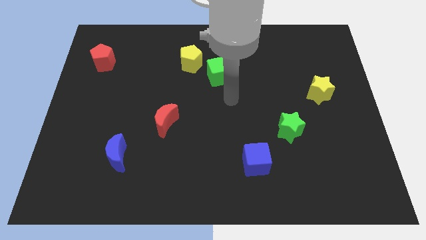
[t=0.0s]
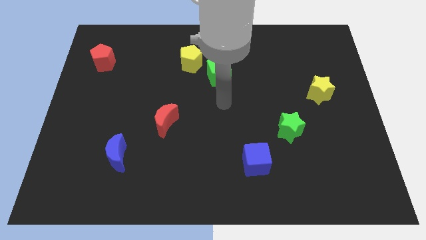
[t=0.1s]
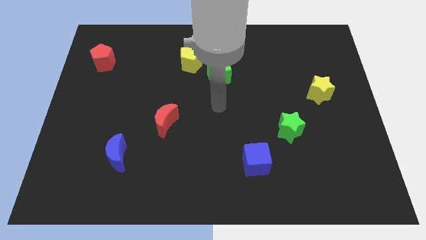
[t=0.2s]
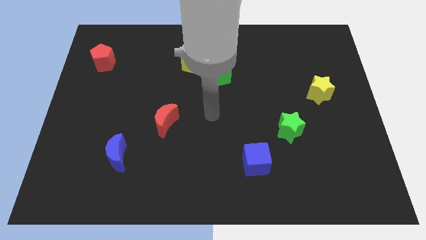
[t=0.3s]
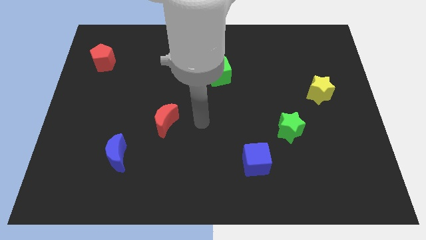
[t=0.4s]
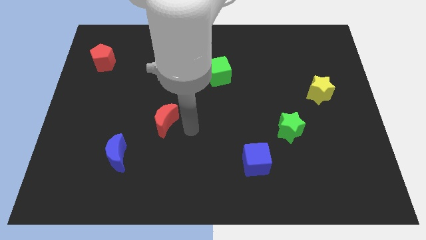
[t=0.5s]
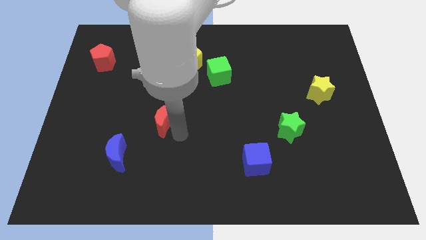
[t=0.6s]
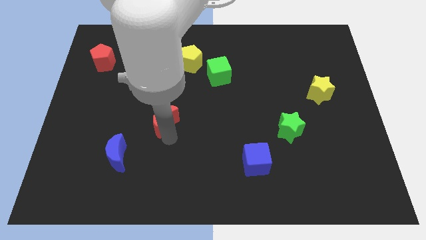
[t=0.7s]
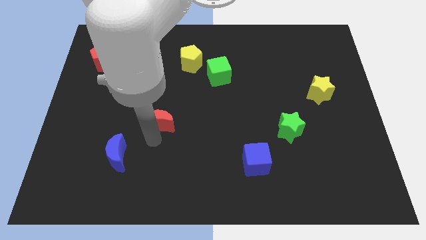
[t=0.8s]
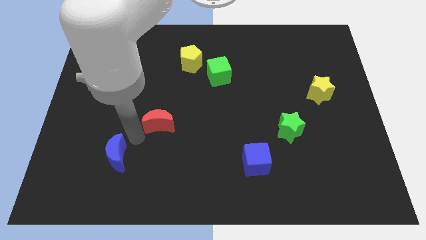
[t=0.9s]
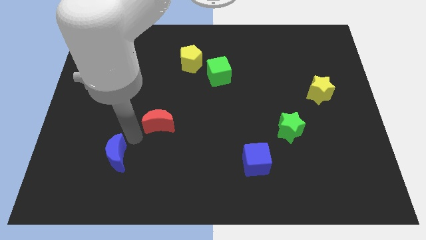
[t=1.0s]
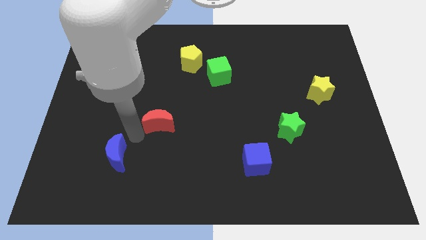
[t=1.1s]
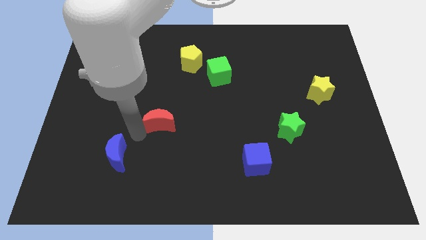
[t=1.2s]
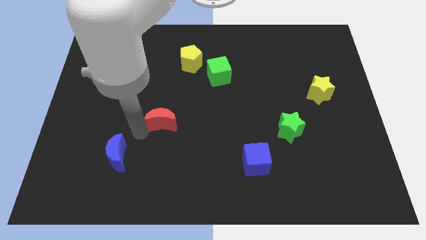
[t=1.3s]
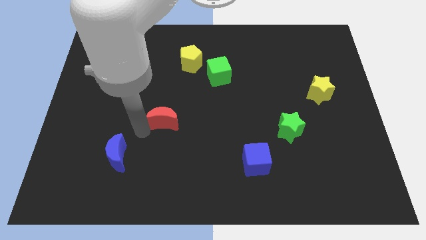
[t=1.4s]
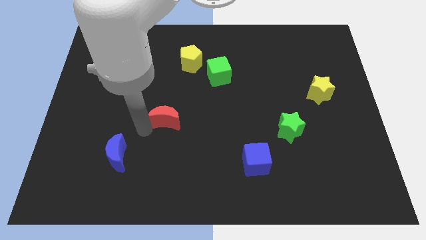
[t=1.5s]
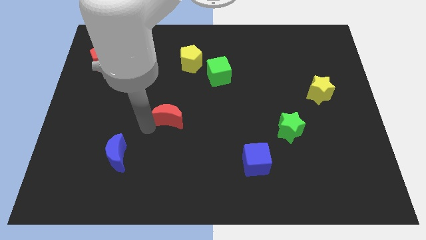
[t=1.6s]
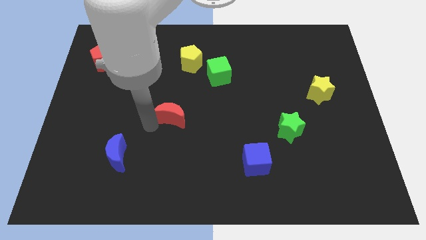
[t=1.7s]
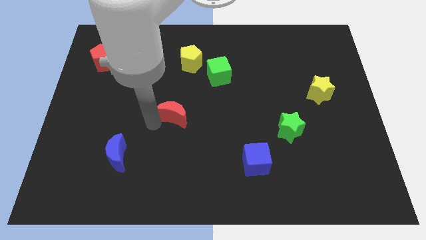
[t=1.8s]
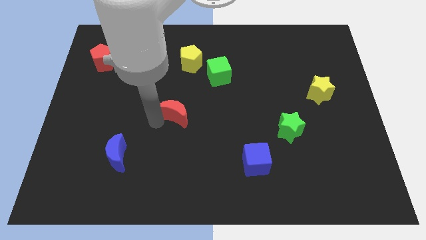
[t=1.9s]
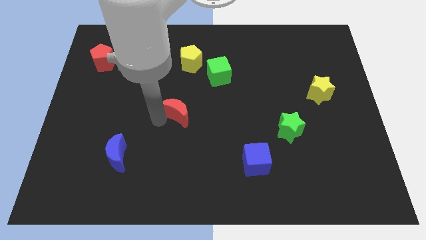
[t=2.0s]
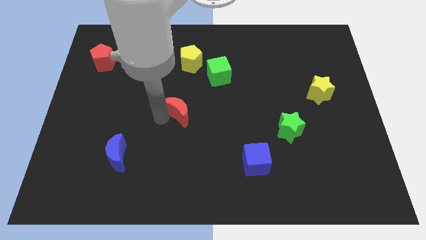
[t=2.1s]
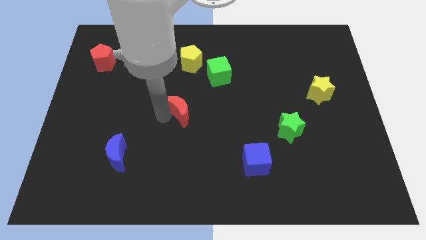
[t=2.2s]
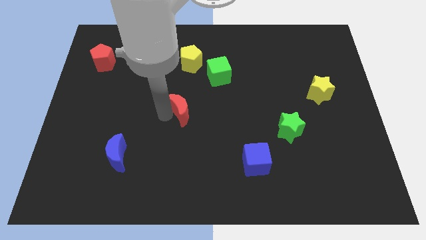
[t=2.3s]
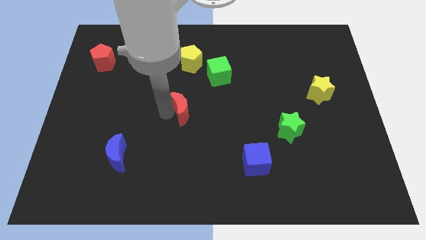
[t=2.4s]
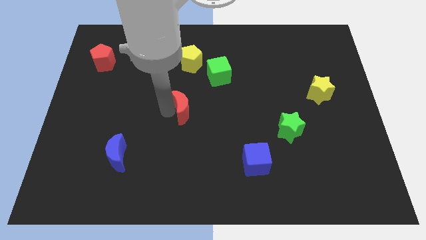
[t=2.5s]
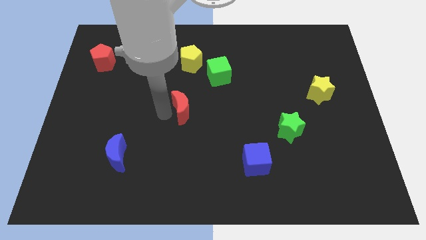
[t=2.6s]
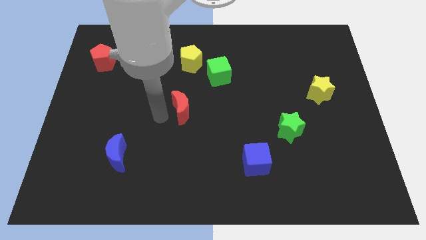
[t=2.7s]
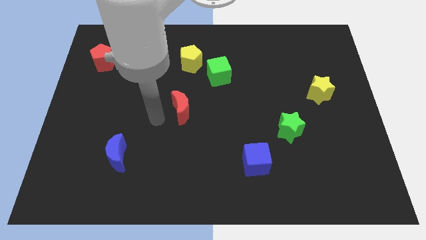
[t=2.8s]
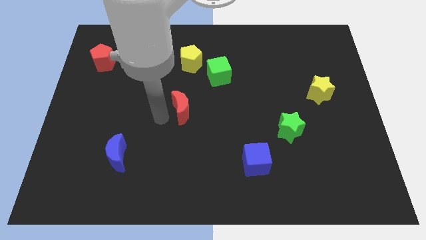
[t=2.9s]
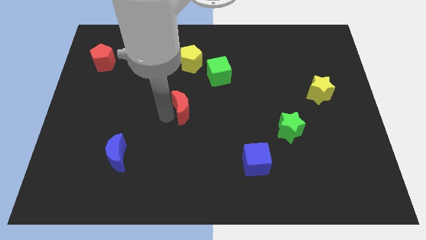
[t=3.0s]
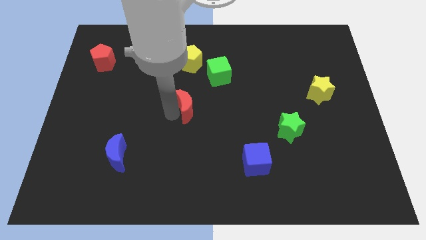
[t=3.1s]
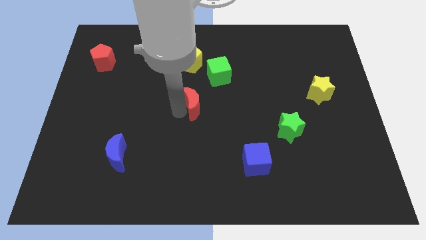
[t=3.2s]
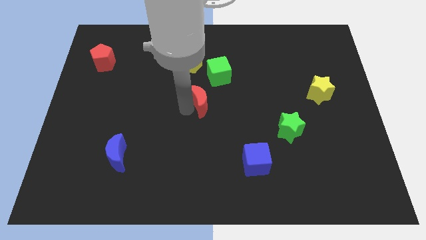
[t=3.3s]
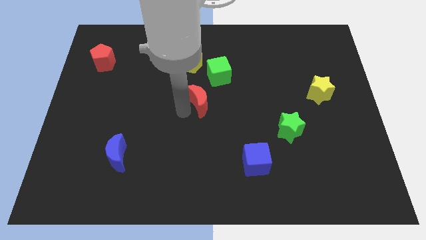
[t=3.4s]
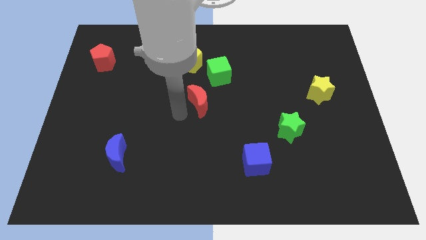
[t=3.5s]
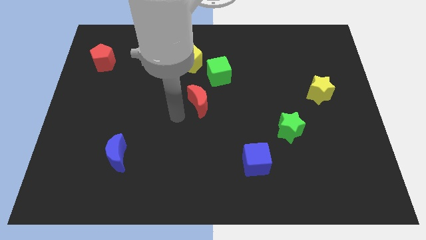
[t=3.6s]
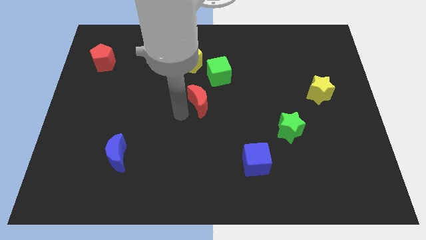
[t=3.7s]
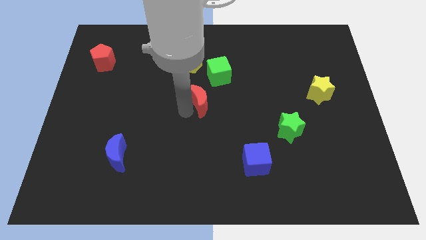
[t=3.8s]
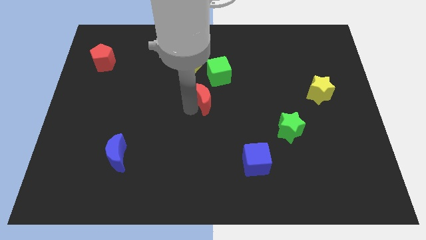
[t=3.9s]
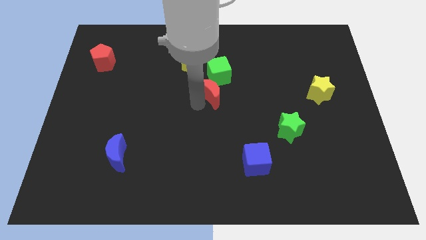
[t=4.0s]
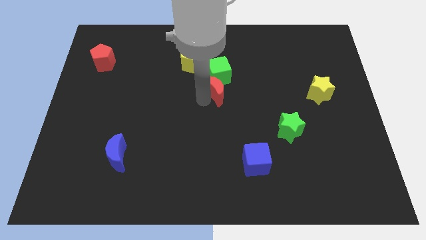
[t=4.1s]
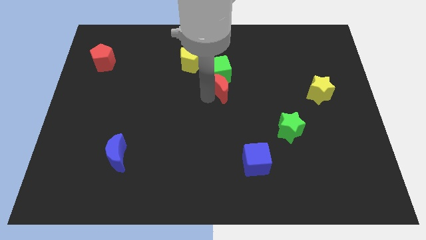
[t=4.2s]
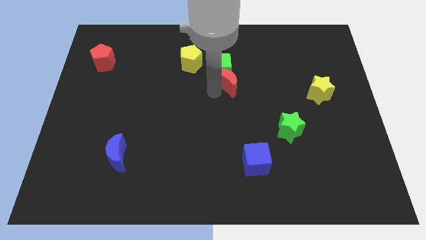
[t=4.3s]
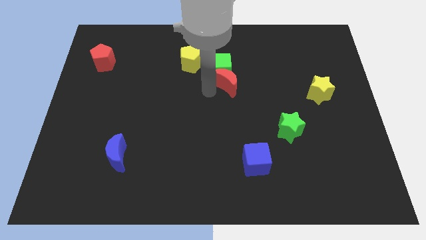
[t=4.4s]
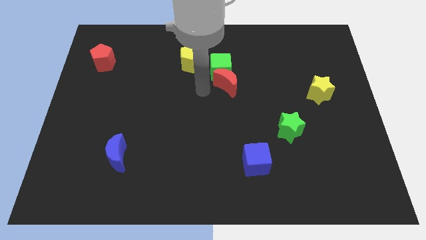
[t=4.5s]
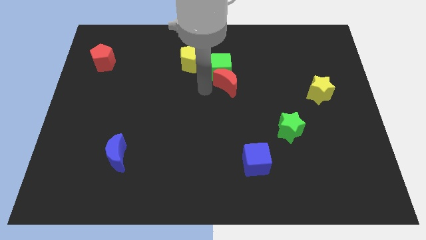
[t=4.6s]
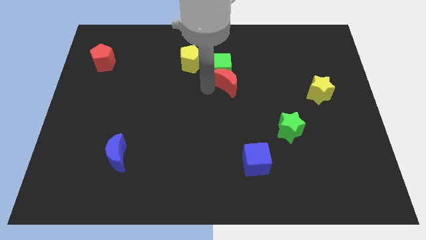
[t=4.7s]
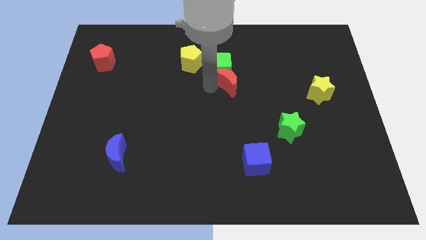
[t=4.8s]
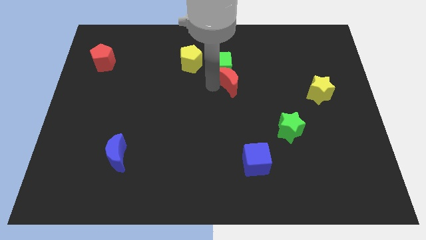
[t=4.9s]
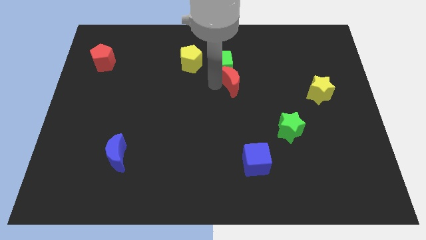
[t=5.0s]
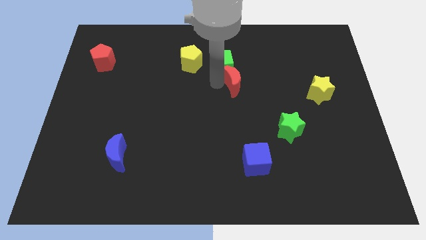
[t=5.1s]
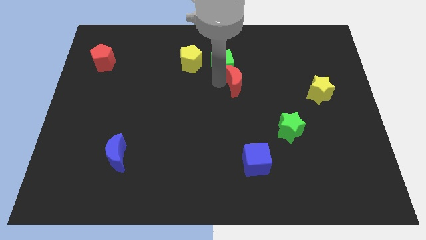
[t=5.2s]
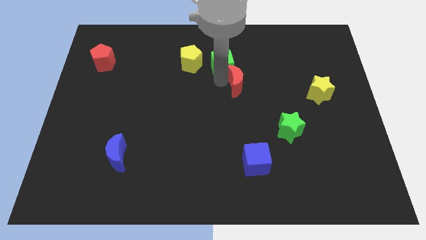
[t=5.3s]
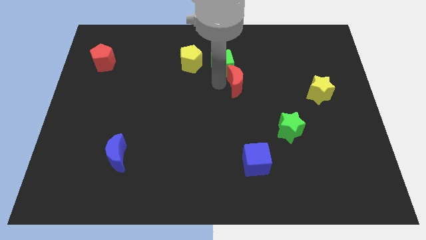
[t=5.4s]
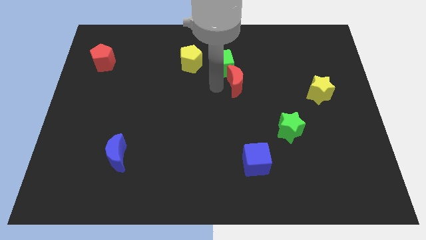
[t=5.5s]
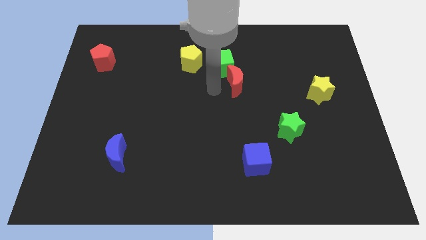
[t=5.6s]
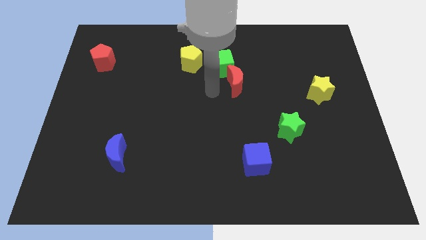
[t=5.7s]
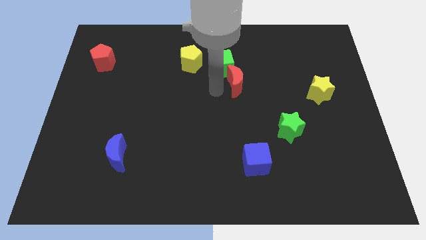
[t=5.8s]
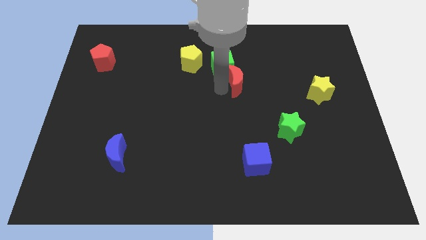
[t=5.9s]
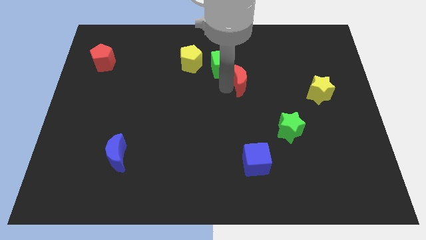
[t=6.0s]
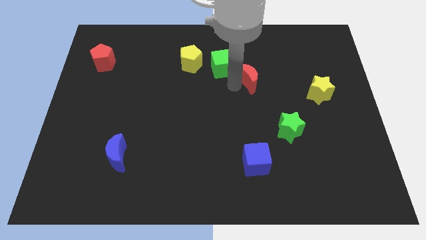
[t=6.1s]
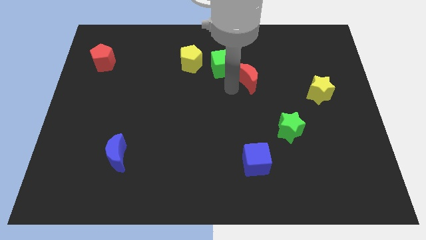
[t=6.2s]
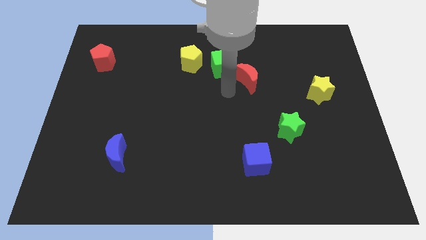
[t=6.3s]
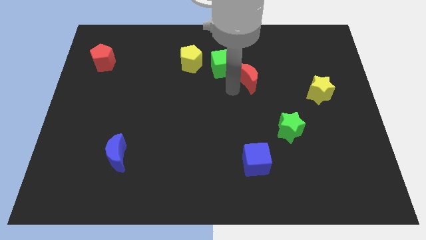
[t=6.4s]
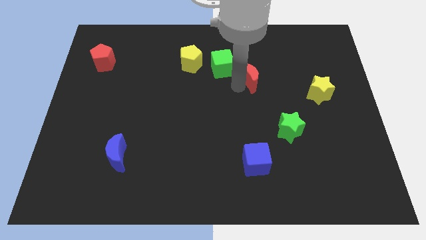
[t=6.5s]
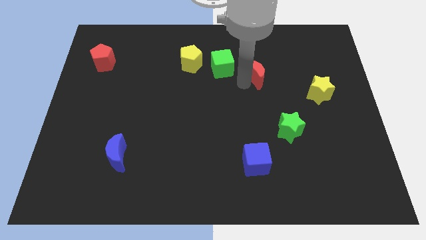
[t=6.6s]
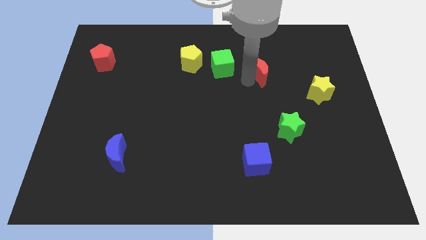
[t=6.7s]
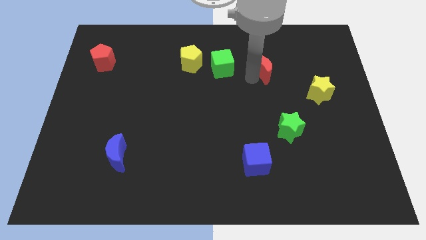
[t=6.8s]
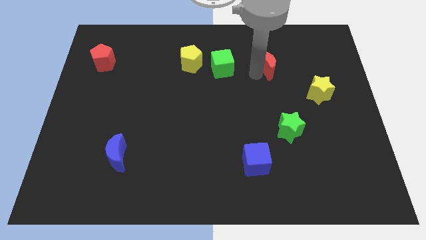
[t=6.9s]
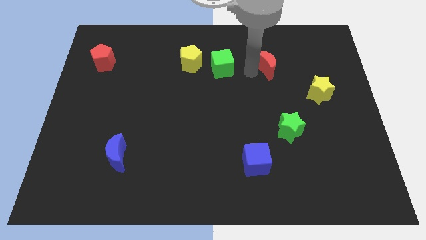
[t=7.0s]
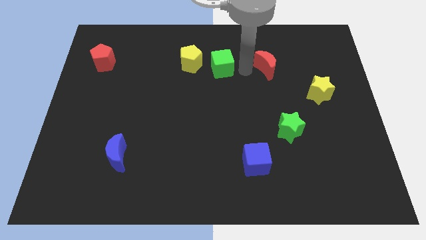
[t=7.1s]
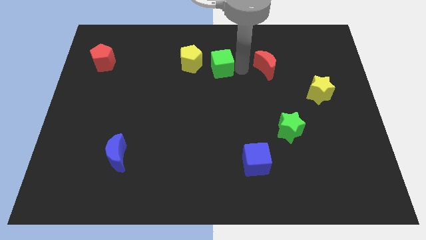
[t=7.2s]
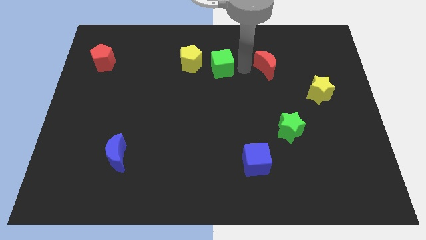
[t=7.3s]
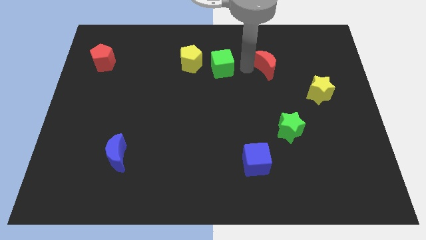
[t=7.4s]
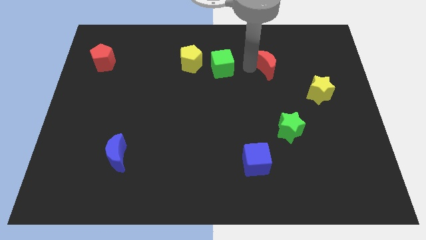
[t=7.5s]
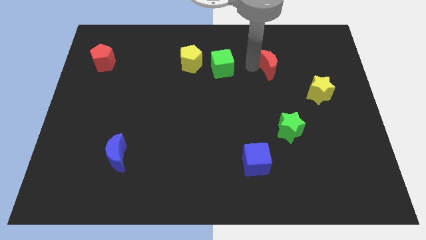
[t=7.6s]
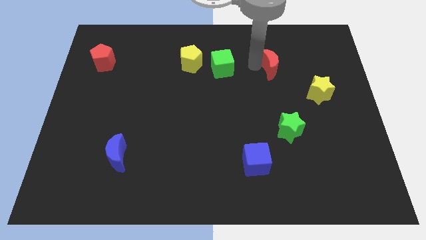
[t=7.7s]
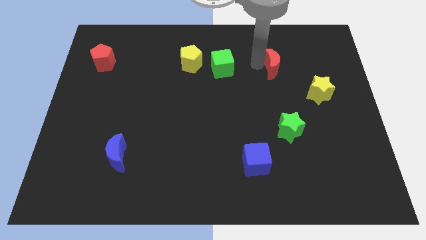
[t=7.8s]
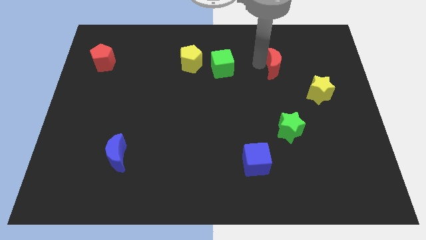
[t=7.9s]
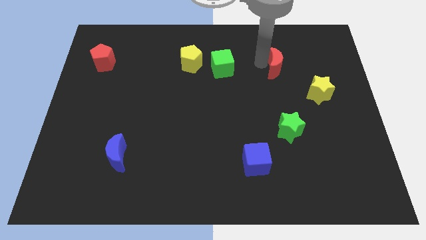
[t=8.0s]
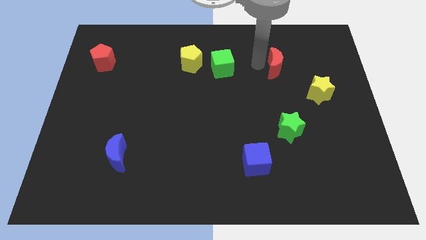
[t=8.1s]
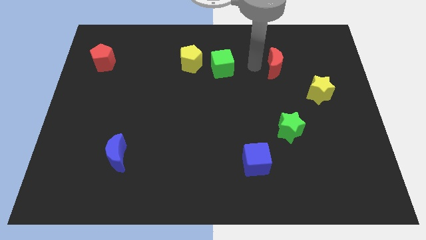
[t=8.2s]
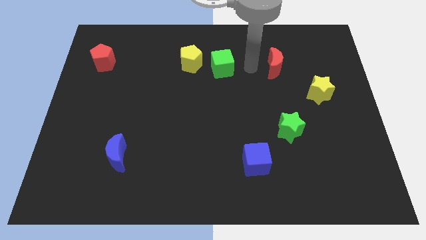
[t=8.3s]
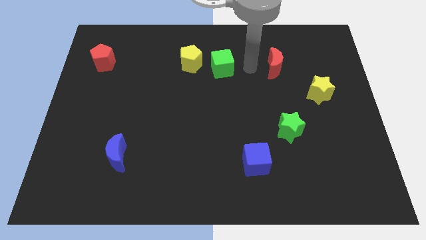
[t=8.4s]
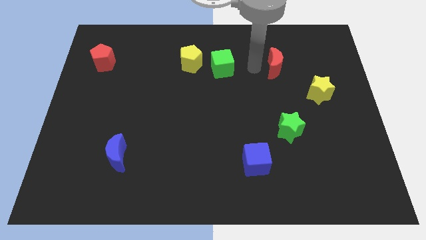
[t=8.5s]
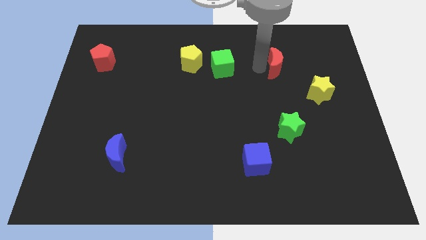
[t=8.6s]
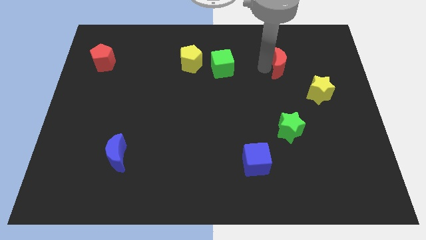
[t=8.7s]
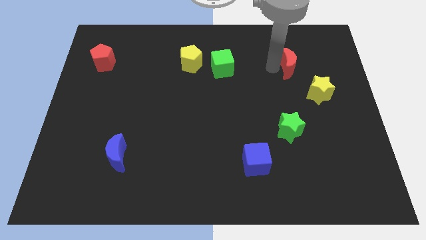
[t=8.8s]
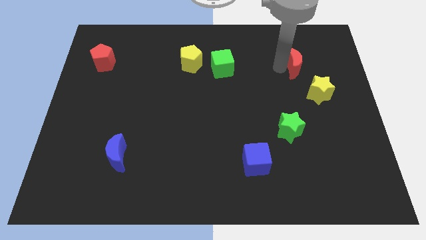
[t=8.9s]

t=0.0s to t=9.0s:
push the red moon to the top of the yellow star
